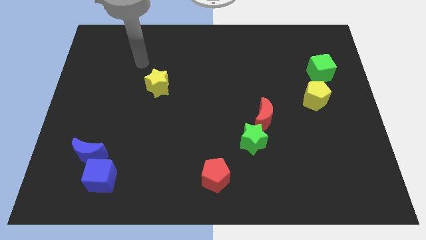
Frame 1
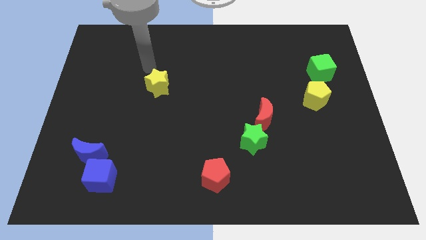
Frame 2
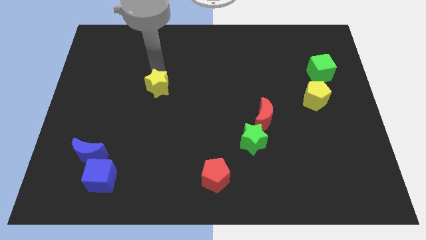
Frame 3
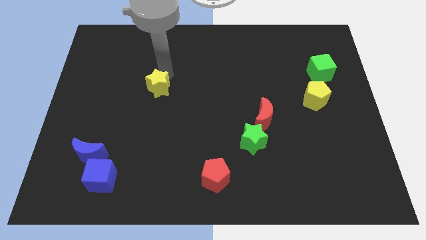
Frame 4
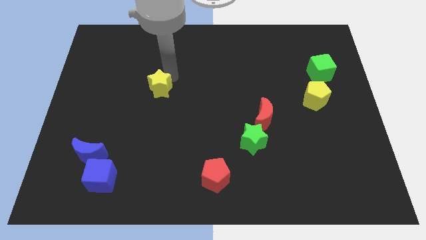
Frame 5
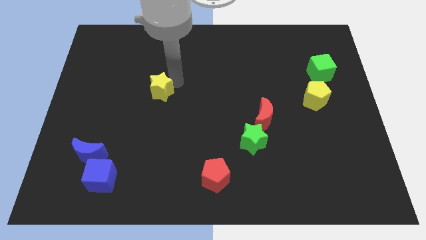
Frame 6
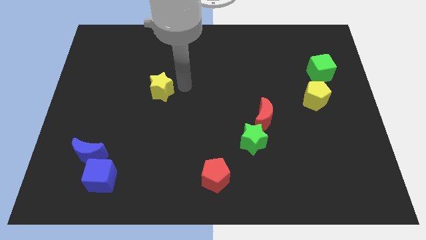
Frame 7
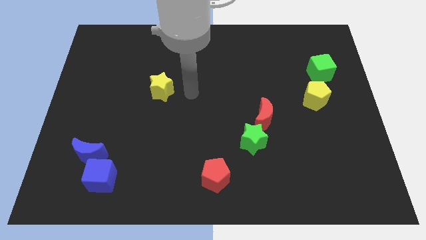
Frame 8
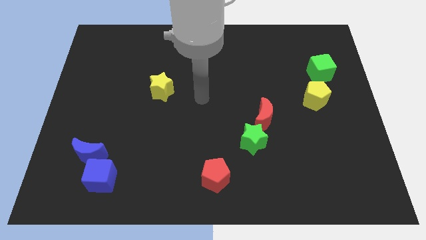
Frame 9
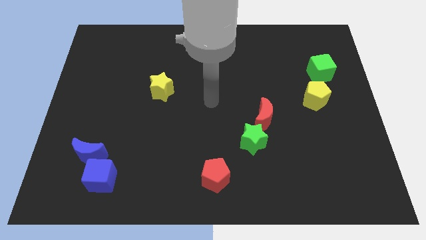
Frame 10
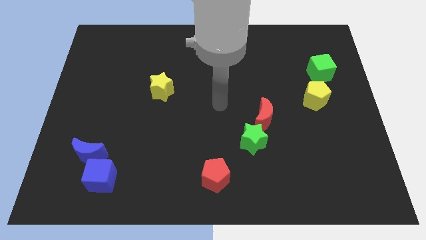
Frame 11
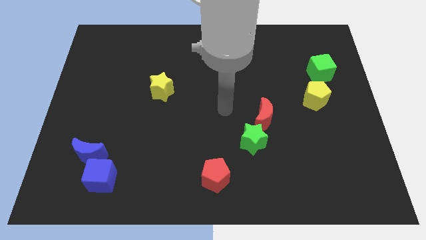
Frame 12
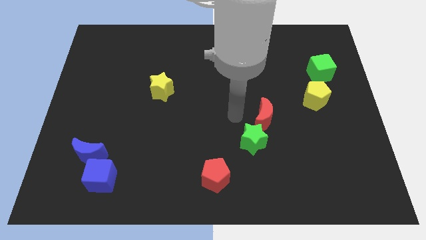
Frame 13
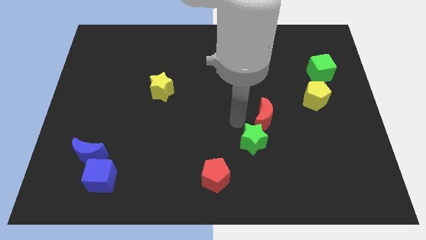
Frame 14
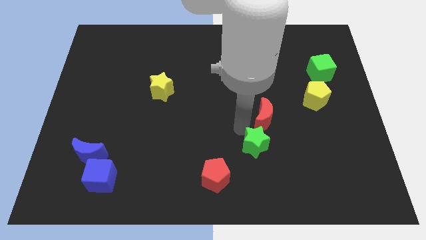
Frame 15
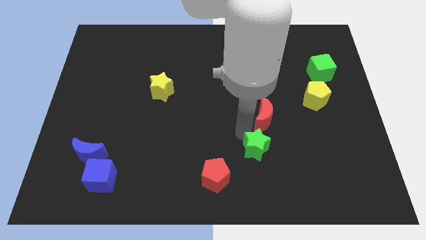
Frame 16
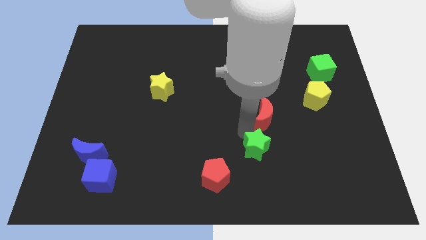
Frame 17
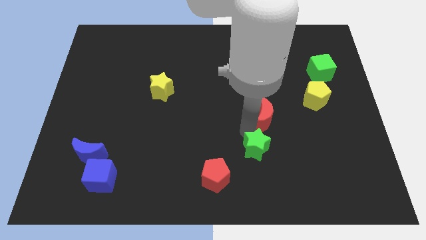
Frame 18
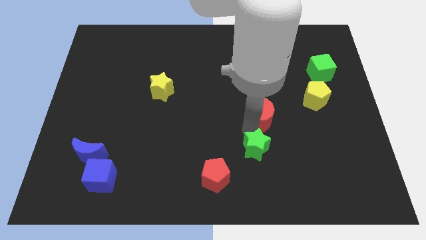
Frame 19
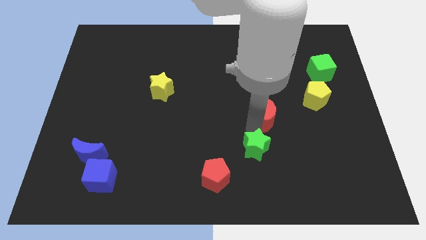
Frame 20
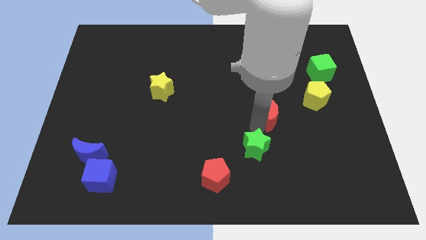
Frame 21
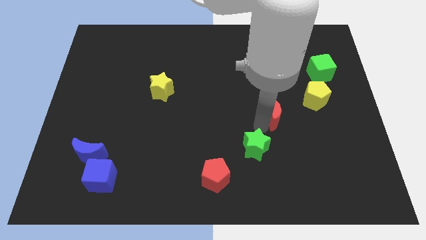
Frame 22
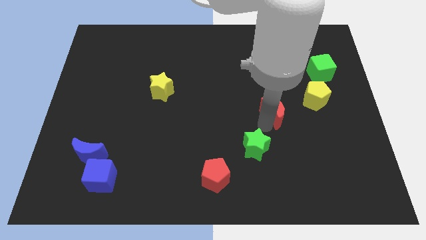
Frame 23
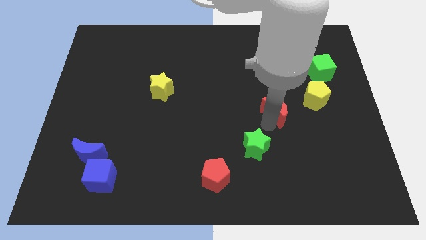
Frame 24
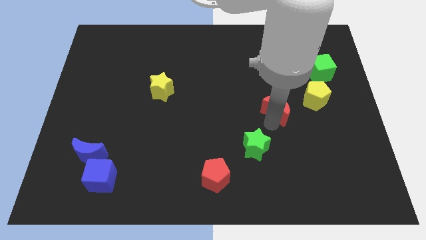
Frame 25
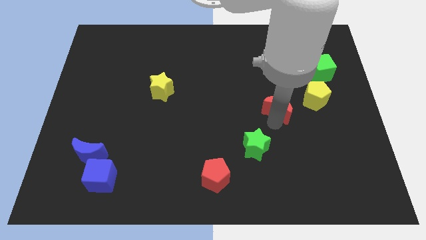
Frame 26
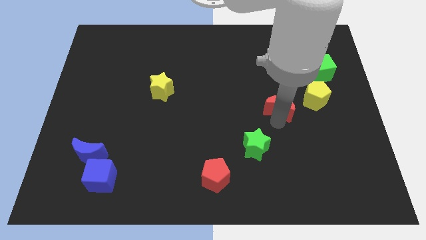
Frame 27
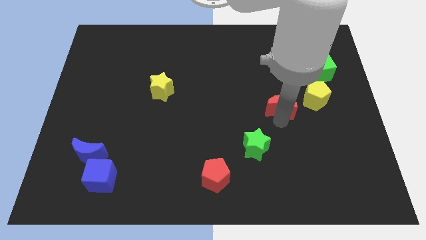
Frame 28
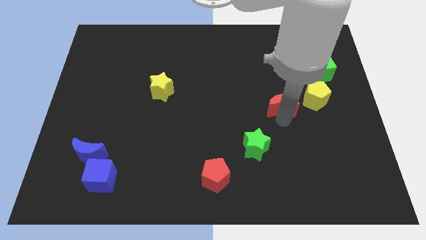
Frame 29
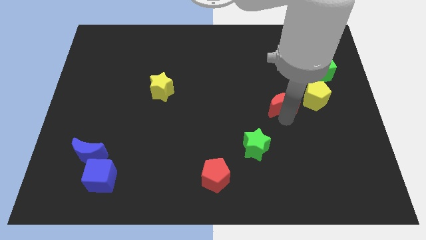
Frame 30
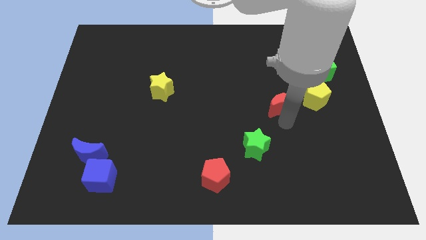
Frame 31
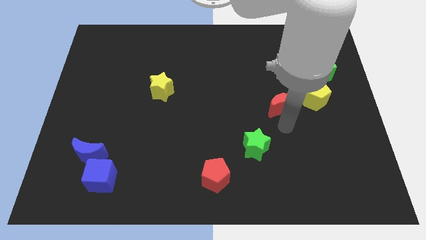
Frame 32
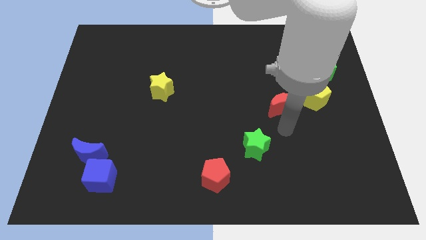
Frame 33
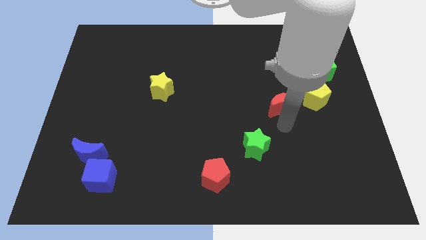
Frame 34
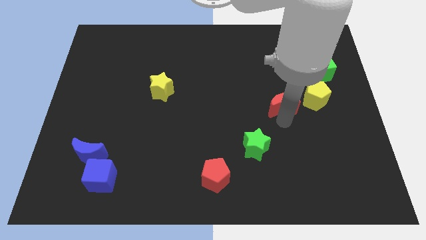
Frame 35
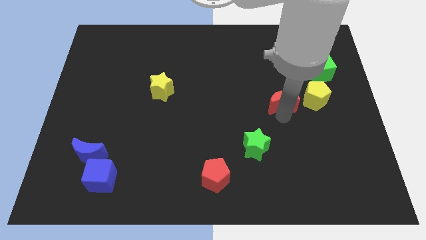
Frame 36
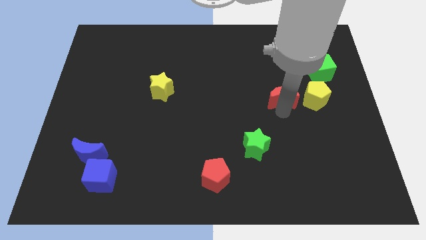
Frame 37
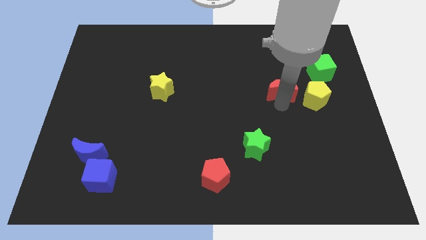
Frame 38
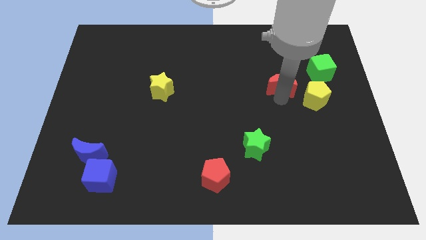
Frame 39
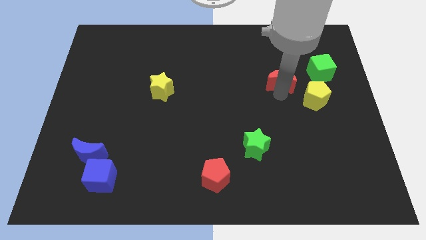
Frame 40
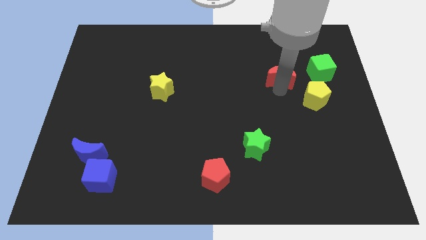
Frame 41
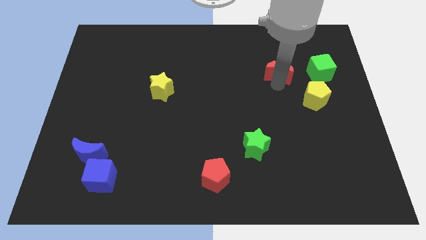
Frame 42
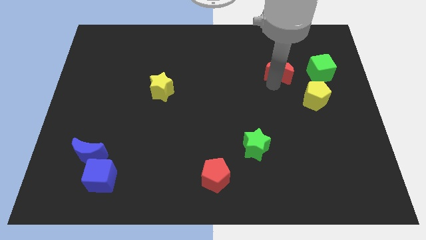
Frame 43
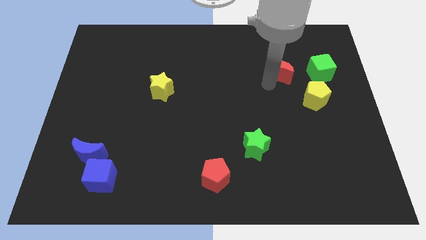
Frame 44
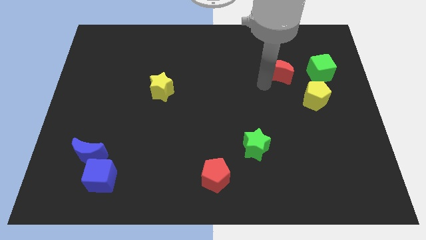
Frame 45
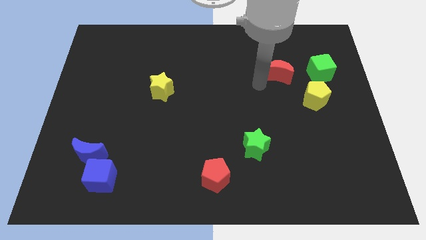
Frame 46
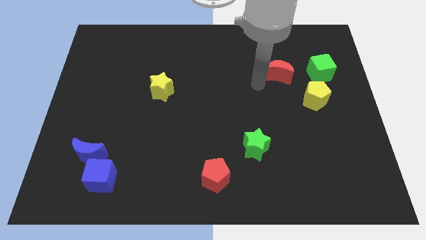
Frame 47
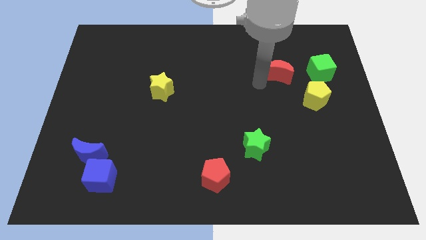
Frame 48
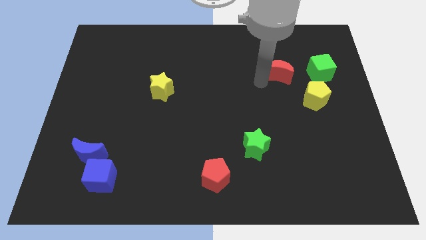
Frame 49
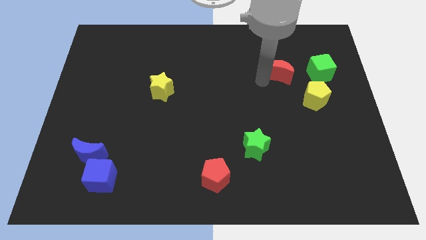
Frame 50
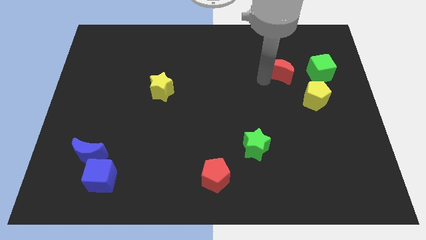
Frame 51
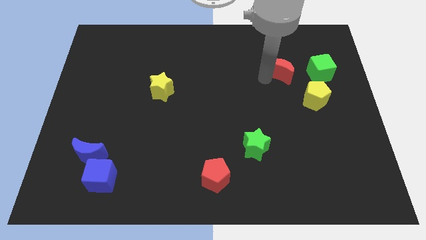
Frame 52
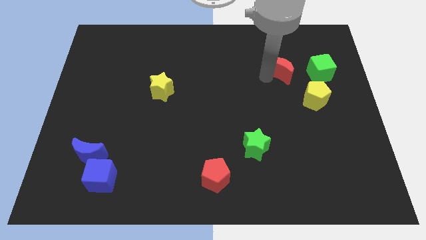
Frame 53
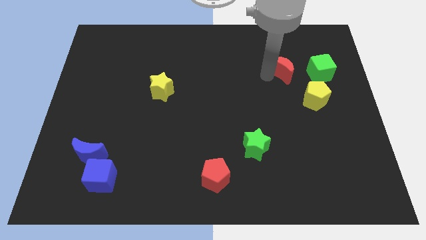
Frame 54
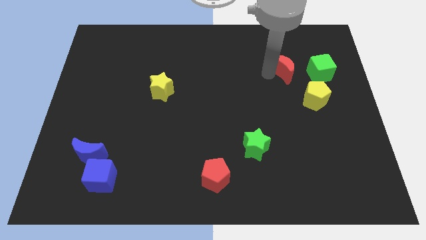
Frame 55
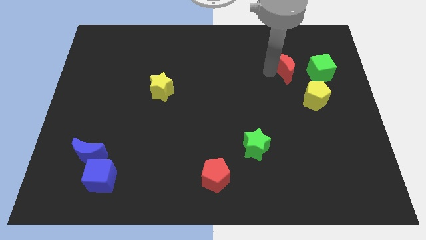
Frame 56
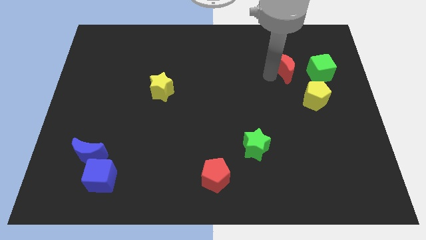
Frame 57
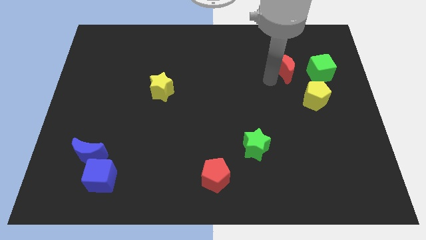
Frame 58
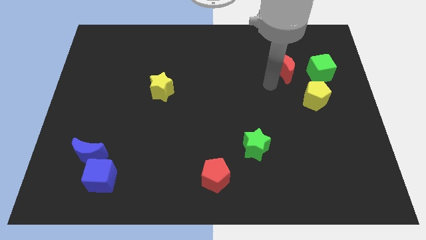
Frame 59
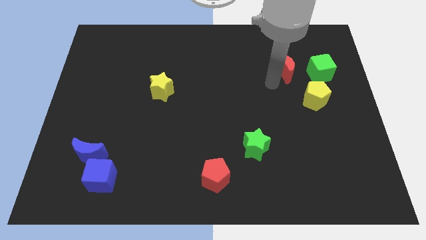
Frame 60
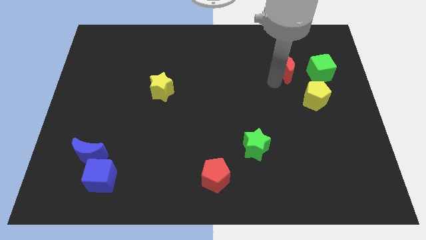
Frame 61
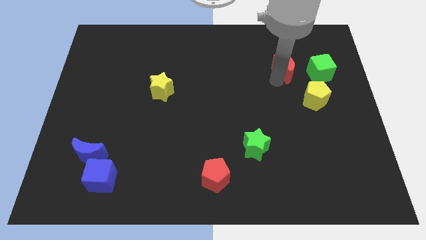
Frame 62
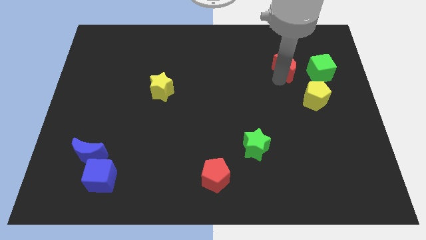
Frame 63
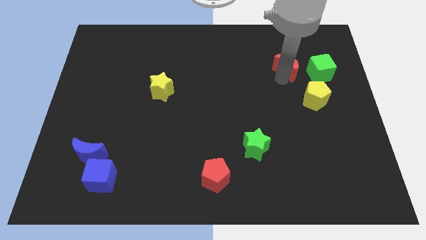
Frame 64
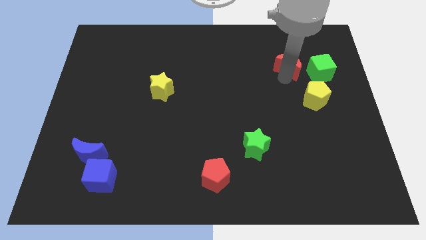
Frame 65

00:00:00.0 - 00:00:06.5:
put the red moon diagonally up and to the left of the green cube

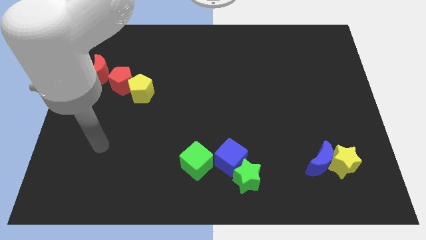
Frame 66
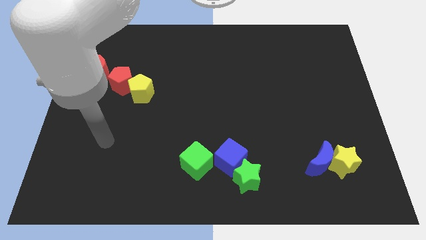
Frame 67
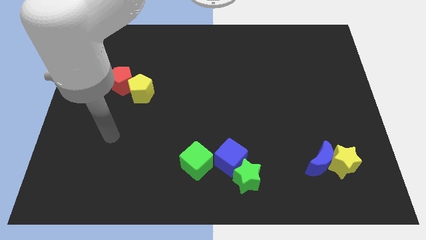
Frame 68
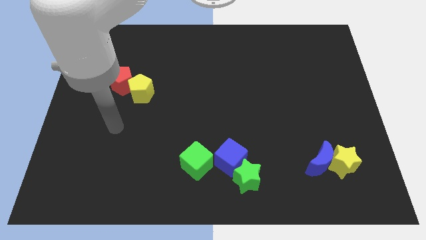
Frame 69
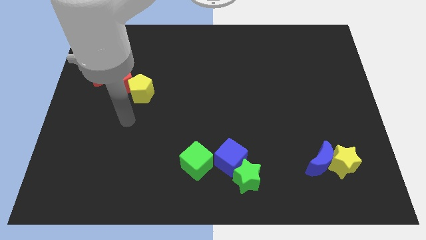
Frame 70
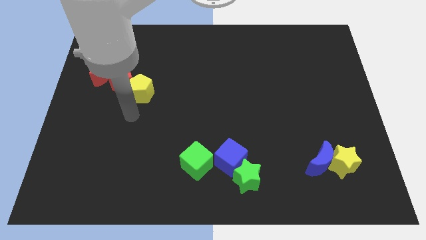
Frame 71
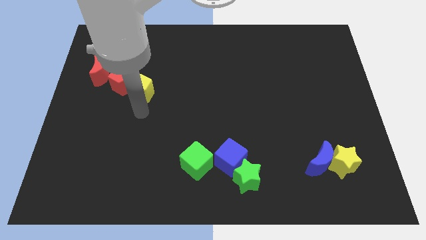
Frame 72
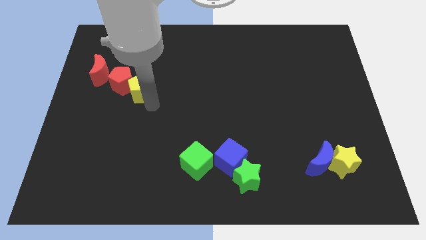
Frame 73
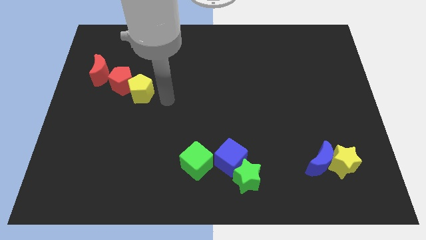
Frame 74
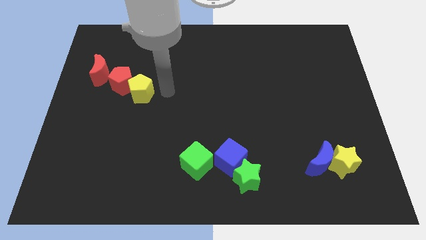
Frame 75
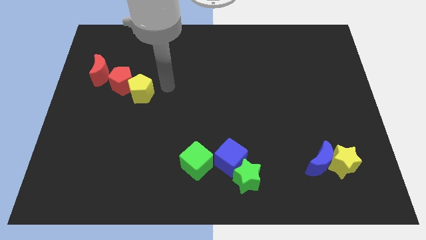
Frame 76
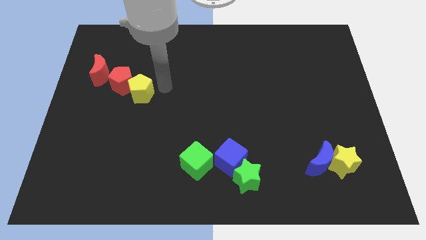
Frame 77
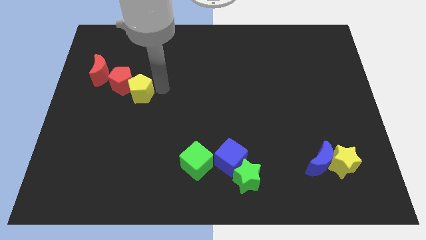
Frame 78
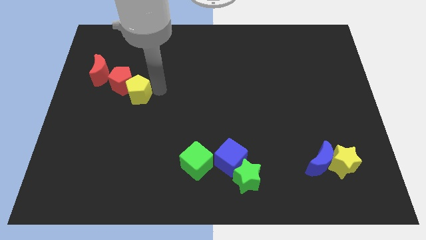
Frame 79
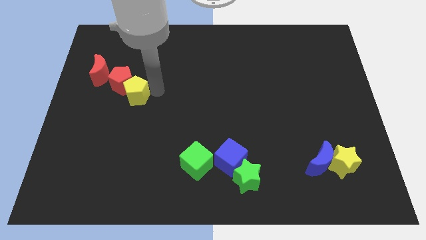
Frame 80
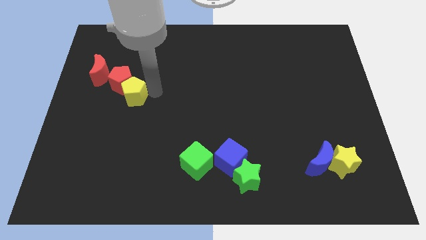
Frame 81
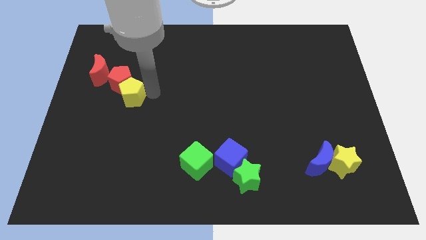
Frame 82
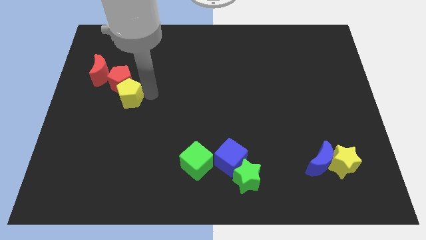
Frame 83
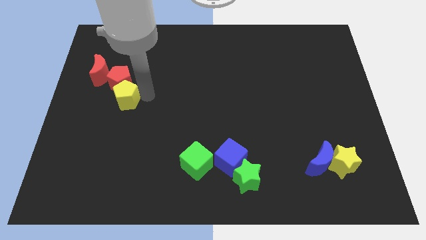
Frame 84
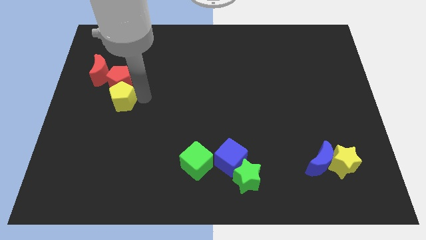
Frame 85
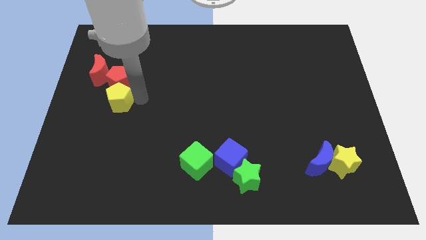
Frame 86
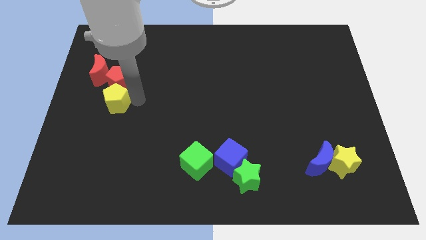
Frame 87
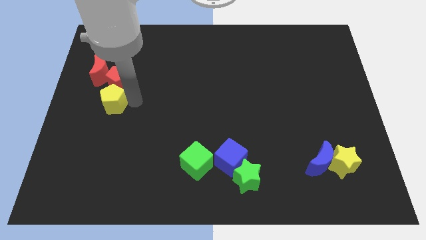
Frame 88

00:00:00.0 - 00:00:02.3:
slide the yellow pentagon to the bottom of the red moon
